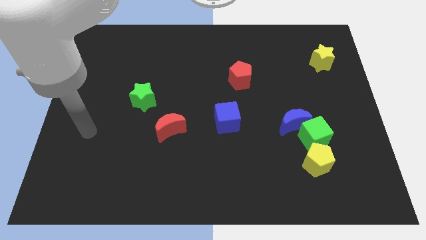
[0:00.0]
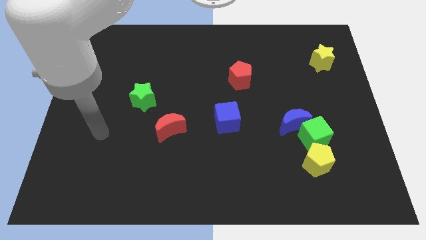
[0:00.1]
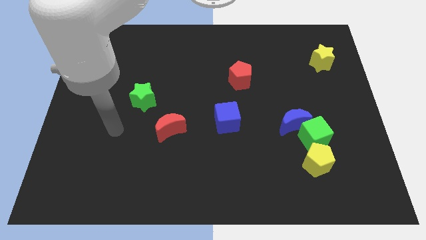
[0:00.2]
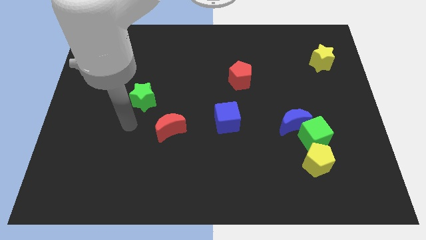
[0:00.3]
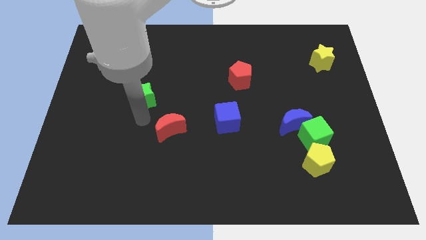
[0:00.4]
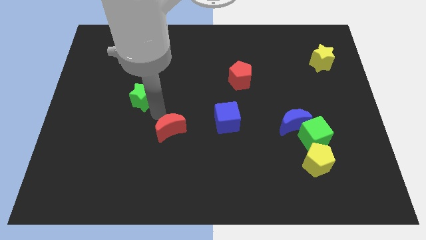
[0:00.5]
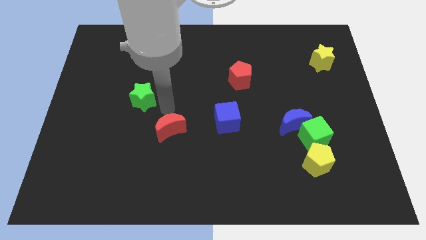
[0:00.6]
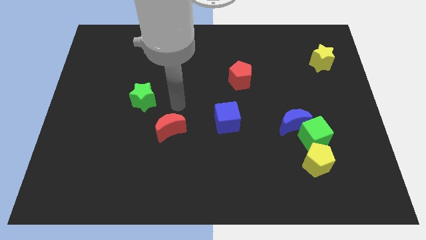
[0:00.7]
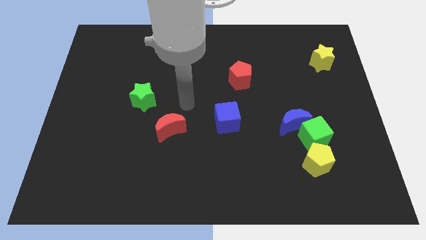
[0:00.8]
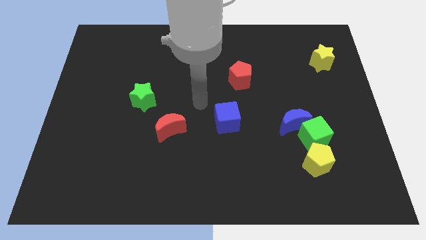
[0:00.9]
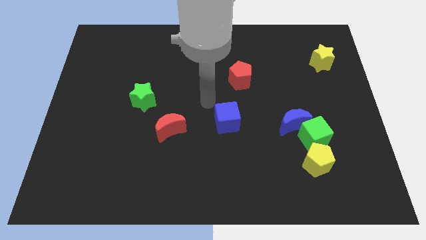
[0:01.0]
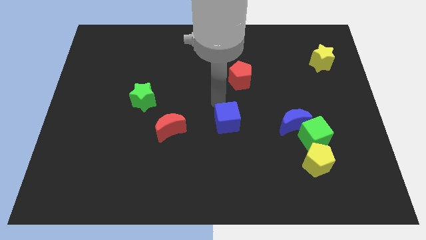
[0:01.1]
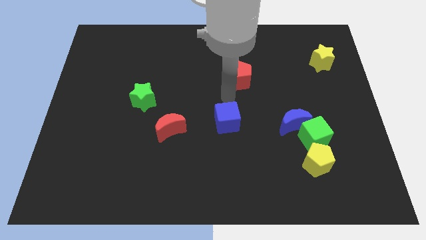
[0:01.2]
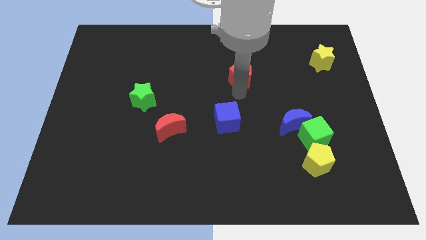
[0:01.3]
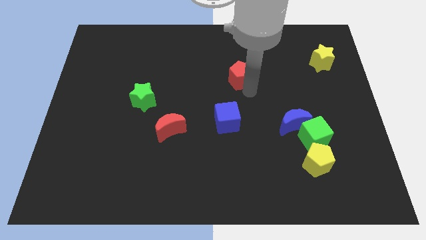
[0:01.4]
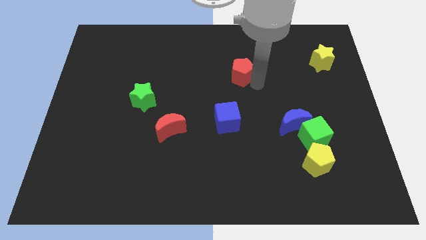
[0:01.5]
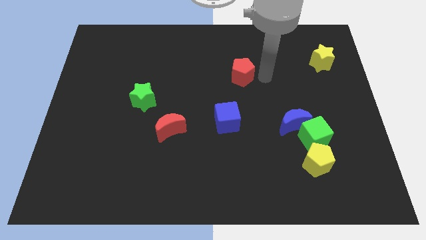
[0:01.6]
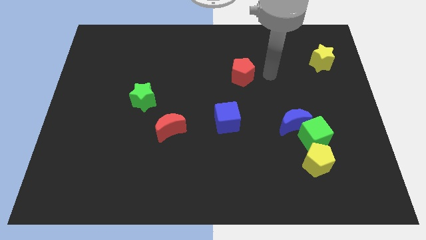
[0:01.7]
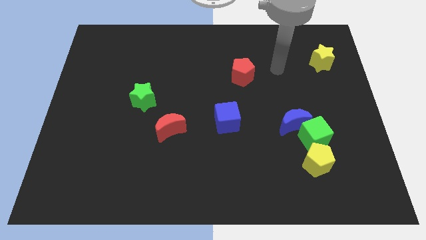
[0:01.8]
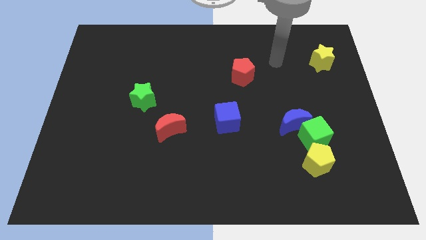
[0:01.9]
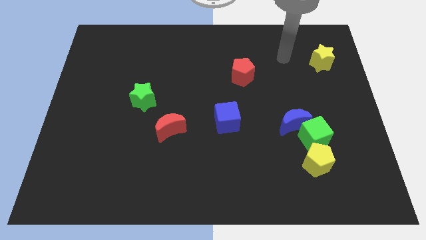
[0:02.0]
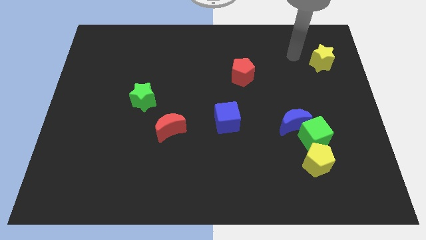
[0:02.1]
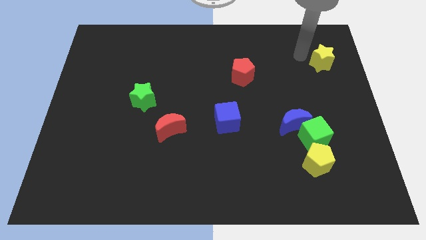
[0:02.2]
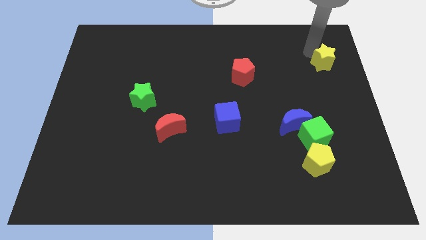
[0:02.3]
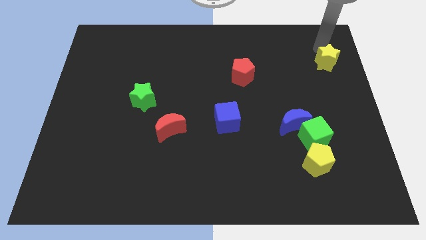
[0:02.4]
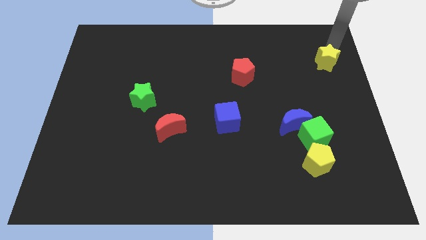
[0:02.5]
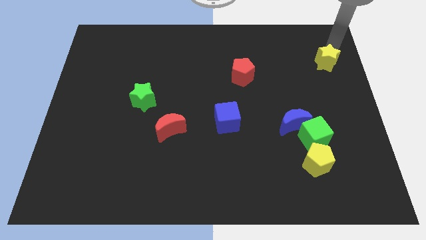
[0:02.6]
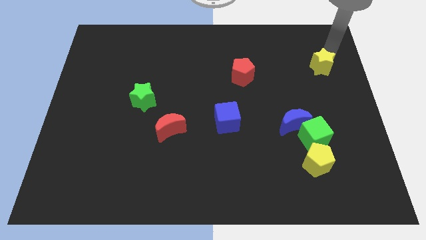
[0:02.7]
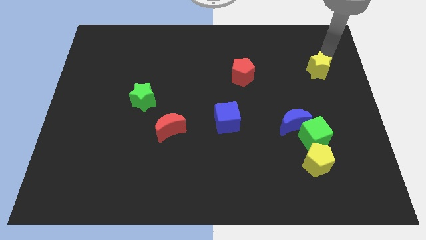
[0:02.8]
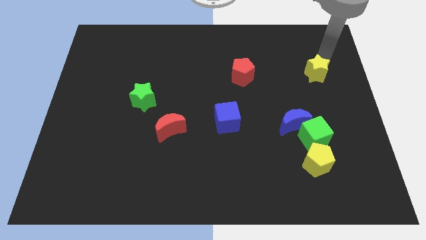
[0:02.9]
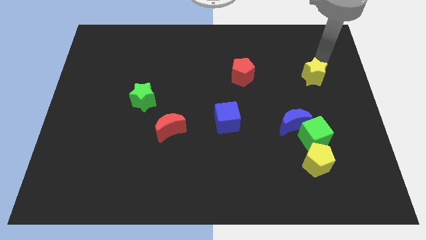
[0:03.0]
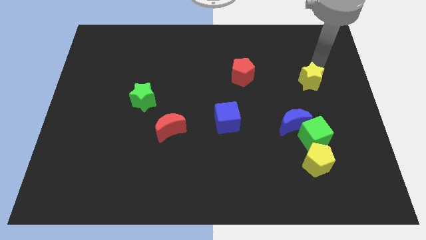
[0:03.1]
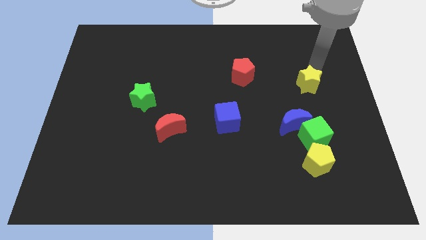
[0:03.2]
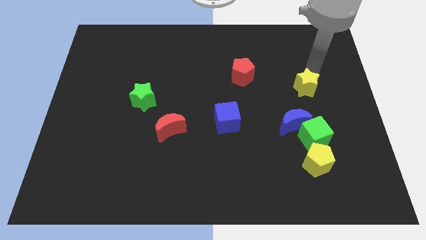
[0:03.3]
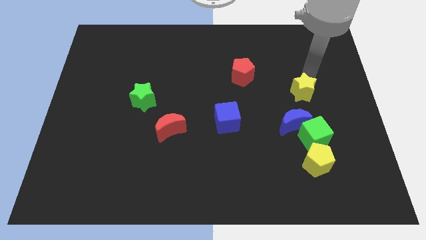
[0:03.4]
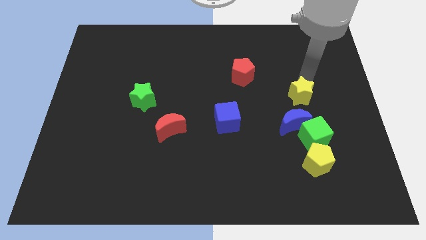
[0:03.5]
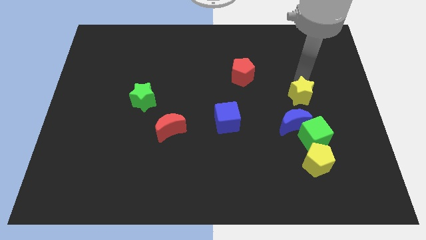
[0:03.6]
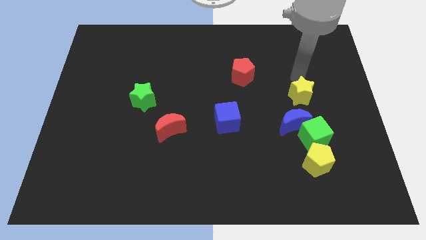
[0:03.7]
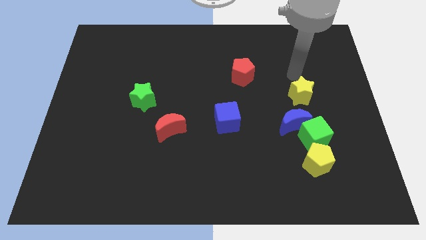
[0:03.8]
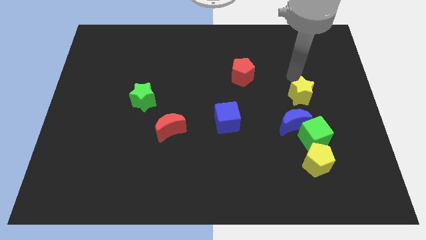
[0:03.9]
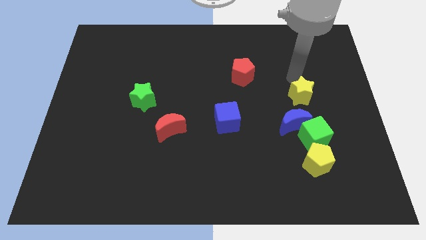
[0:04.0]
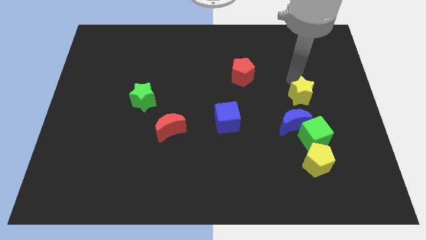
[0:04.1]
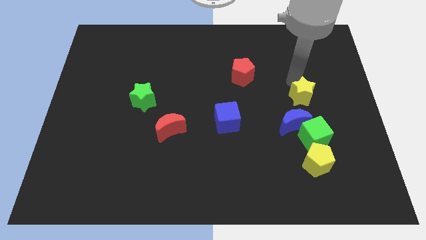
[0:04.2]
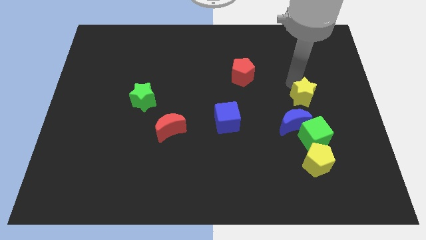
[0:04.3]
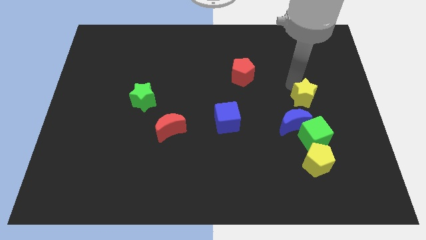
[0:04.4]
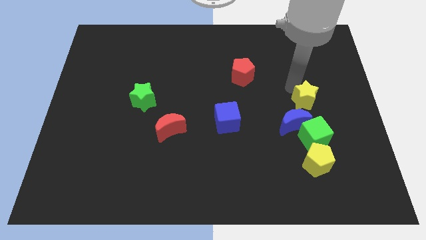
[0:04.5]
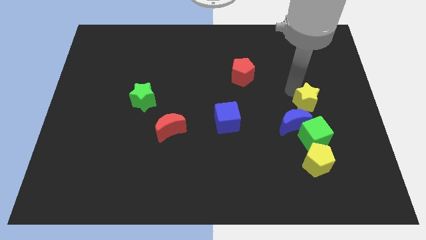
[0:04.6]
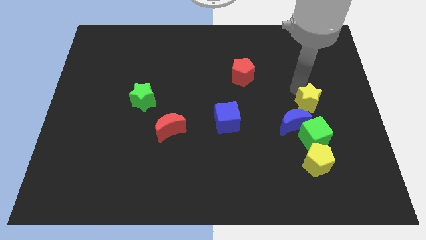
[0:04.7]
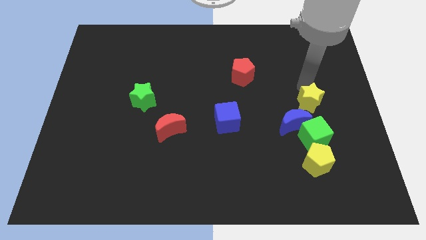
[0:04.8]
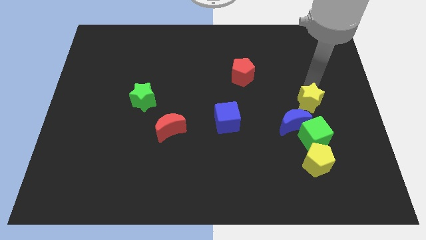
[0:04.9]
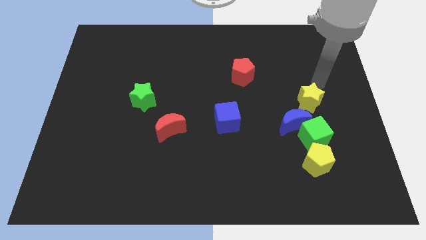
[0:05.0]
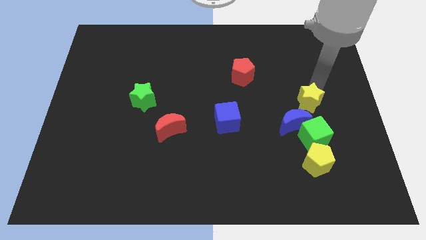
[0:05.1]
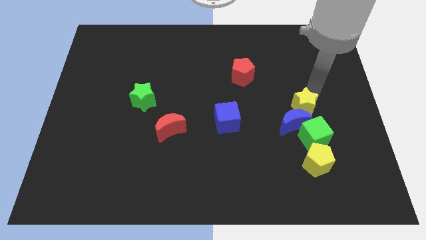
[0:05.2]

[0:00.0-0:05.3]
put the yellow star next to the blue moon

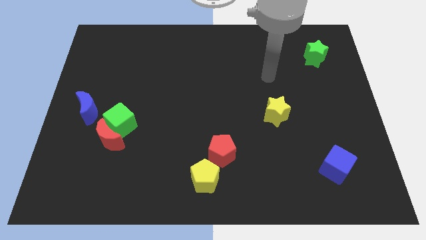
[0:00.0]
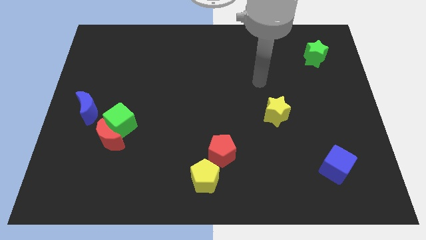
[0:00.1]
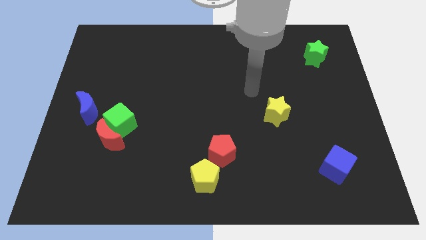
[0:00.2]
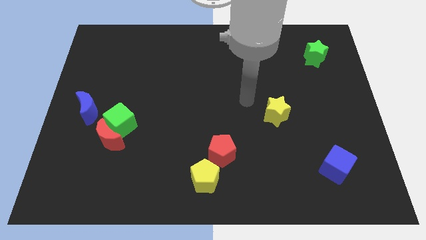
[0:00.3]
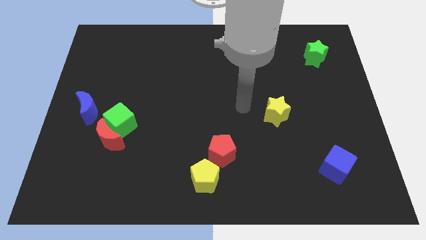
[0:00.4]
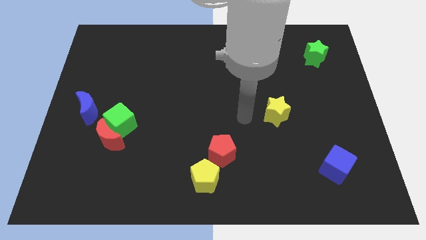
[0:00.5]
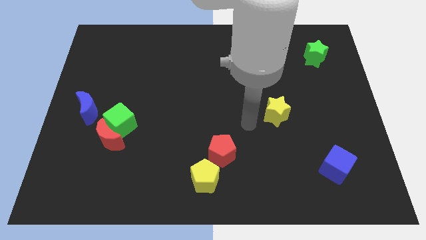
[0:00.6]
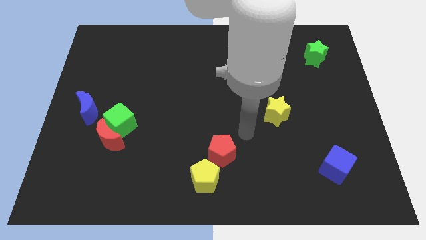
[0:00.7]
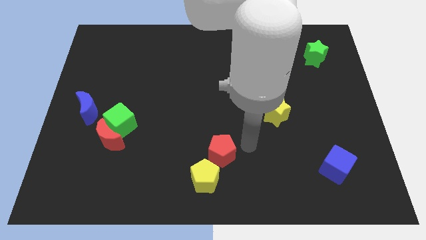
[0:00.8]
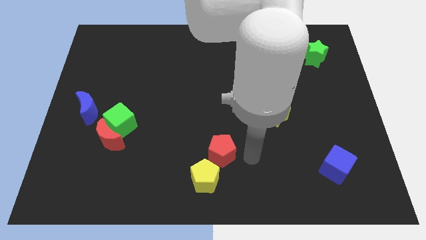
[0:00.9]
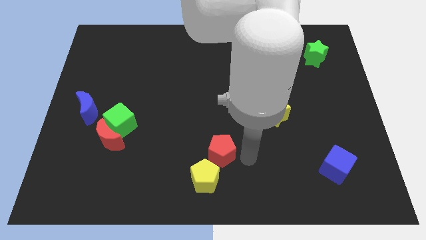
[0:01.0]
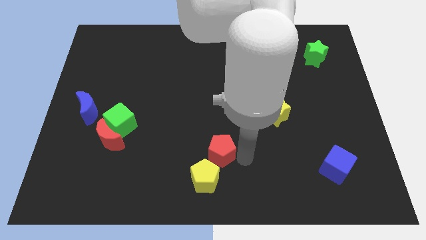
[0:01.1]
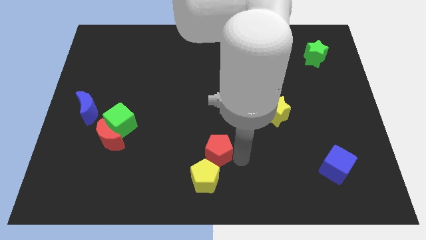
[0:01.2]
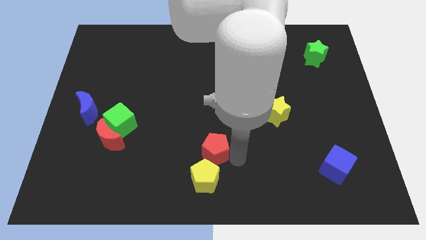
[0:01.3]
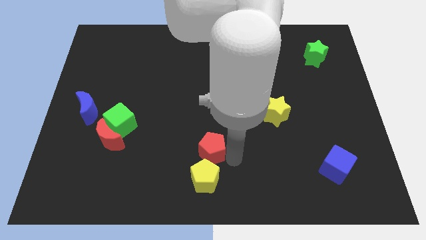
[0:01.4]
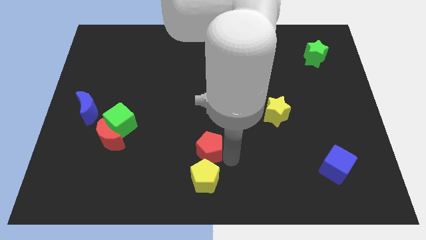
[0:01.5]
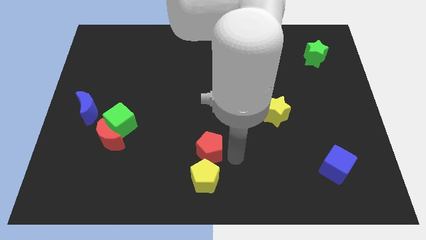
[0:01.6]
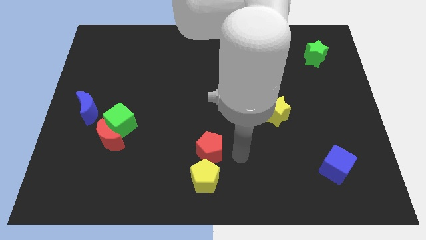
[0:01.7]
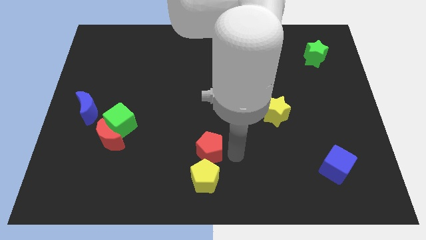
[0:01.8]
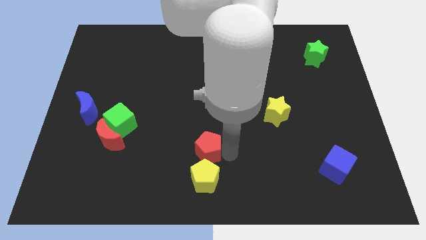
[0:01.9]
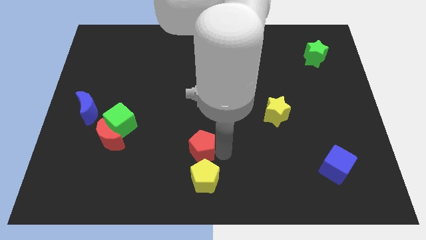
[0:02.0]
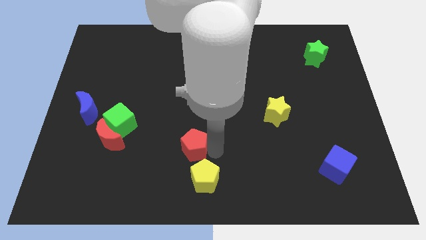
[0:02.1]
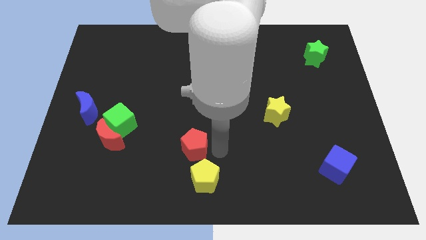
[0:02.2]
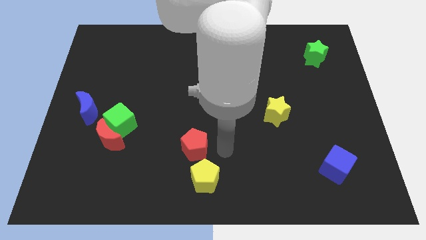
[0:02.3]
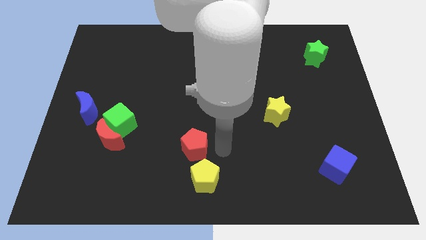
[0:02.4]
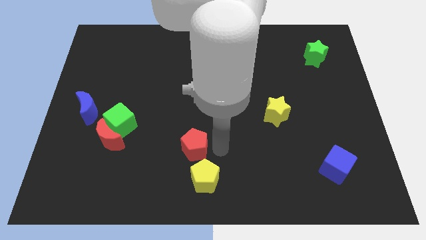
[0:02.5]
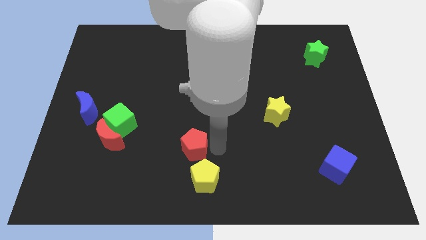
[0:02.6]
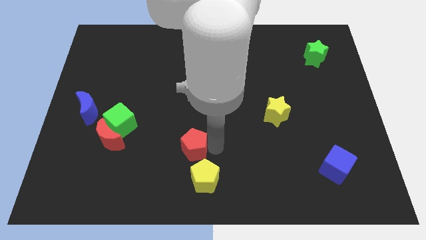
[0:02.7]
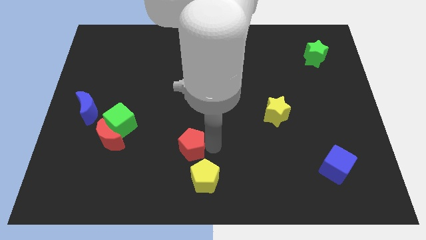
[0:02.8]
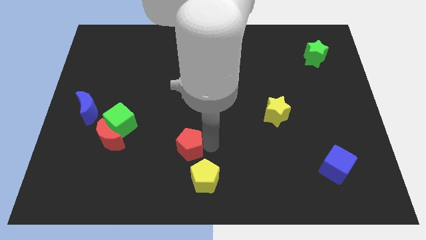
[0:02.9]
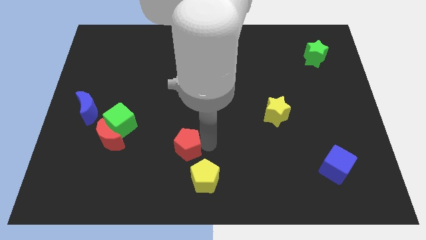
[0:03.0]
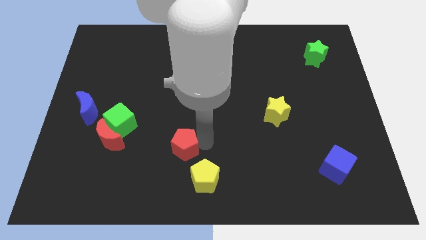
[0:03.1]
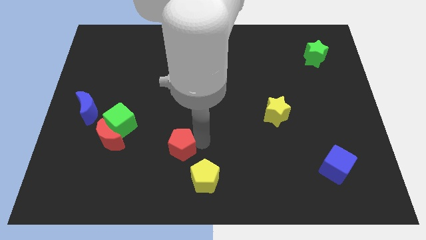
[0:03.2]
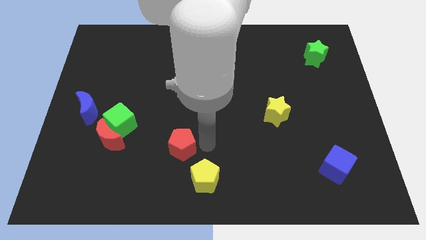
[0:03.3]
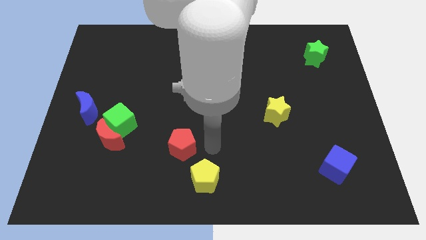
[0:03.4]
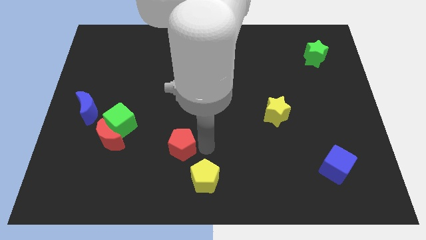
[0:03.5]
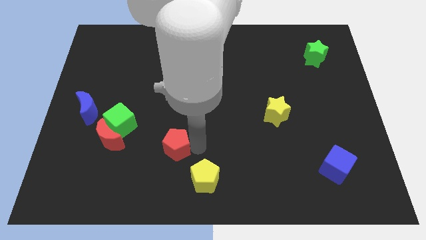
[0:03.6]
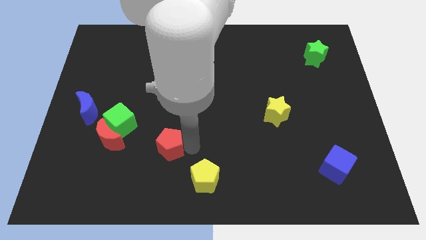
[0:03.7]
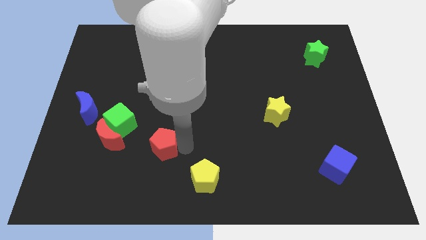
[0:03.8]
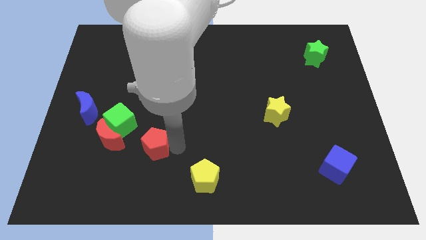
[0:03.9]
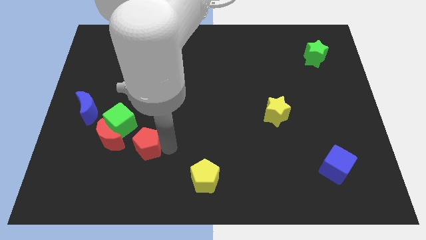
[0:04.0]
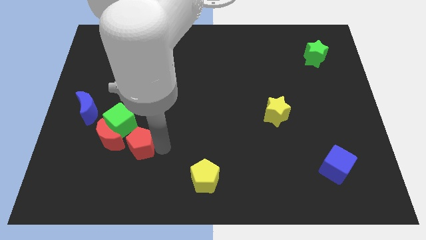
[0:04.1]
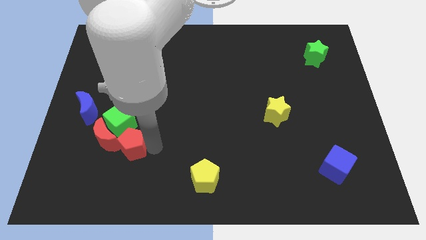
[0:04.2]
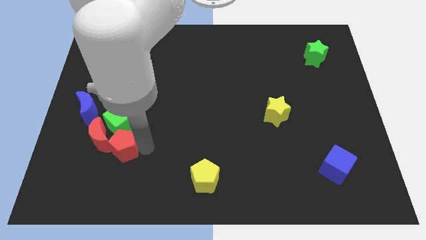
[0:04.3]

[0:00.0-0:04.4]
put the red pentagon towards the red moon
